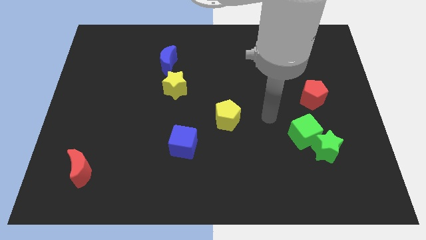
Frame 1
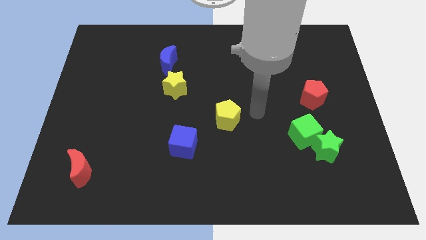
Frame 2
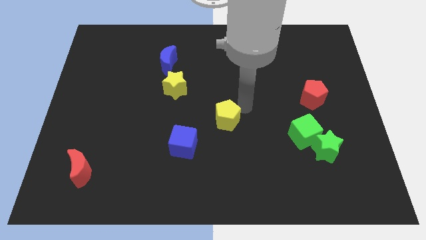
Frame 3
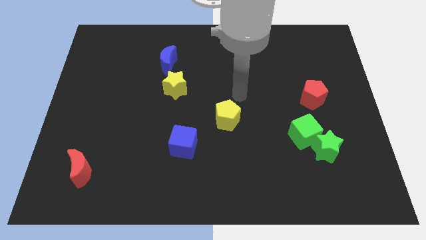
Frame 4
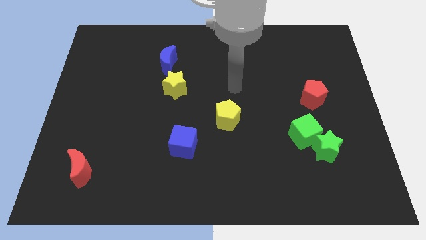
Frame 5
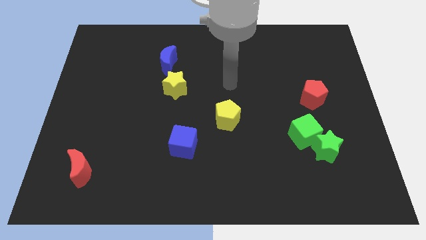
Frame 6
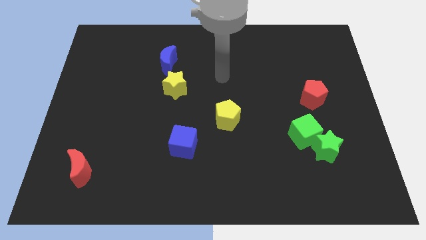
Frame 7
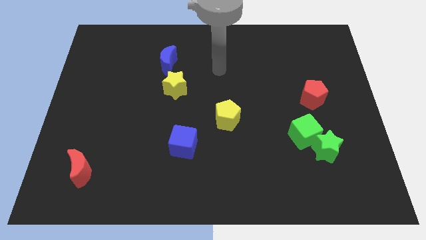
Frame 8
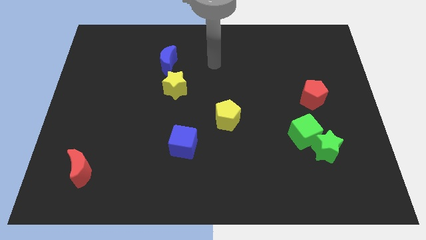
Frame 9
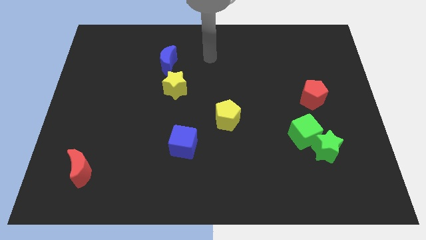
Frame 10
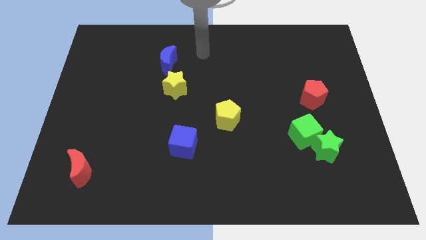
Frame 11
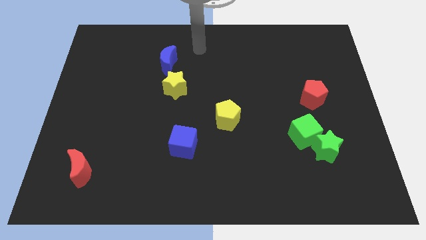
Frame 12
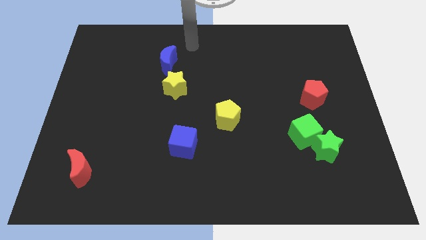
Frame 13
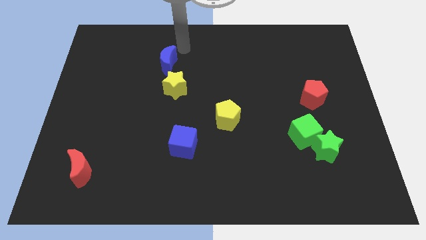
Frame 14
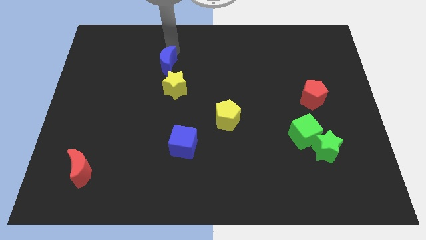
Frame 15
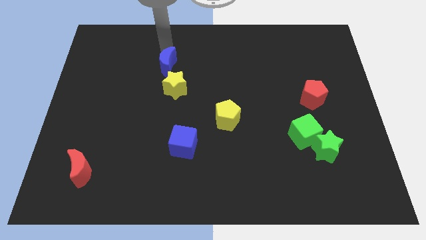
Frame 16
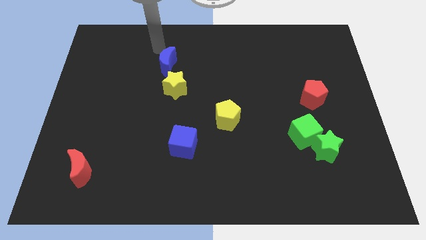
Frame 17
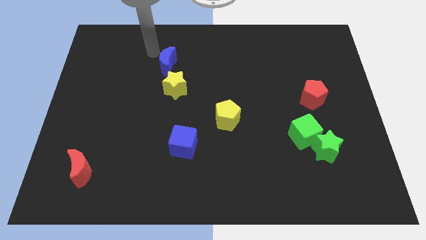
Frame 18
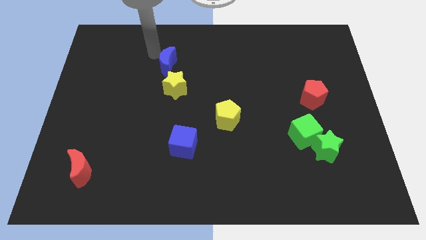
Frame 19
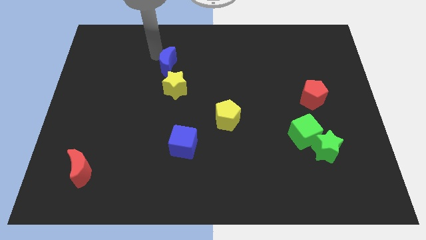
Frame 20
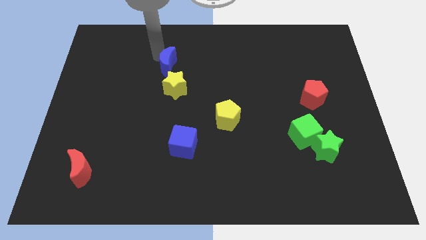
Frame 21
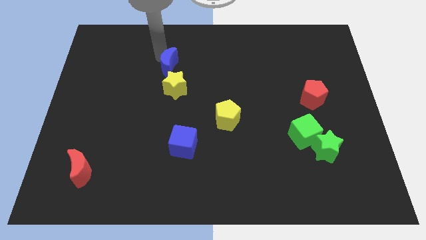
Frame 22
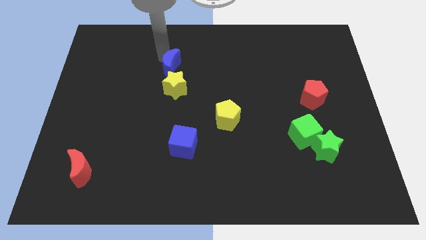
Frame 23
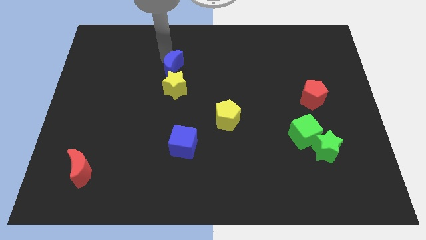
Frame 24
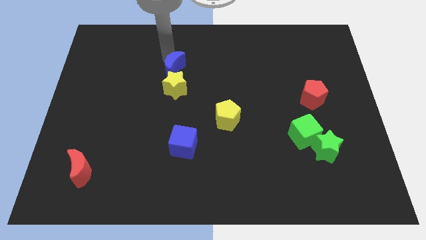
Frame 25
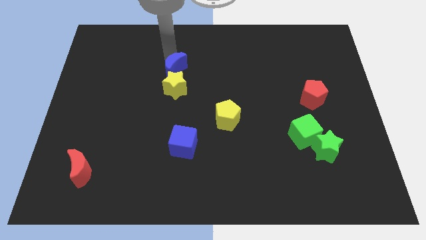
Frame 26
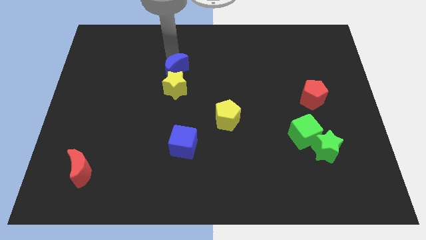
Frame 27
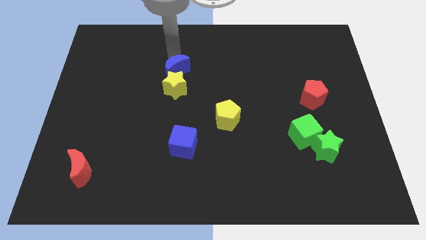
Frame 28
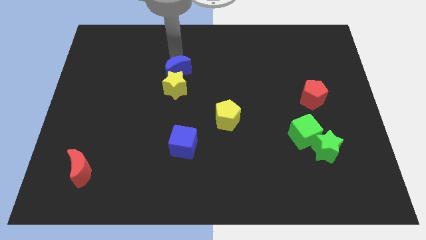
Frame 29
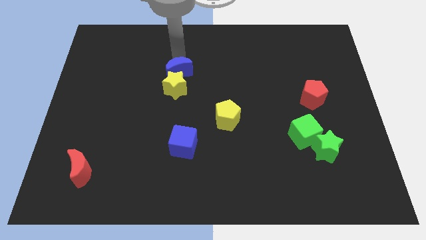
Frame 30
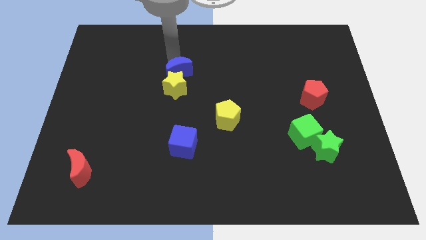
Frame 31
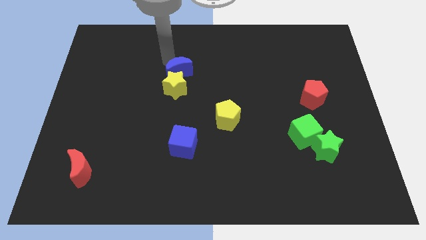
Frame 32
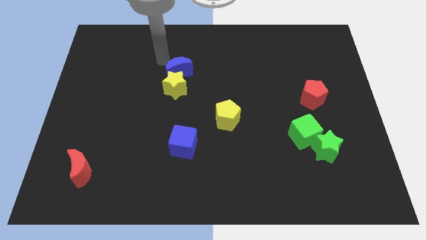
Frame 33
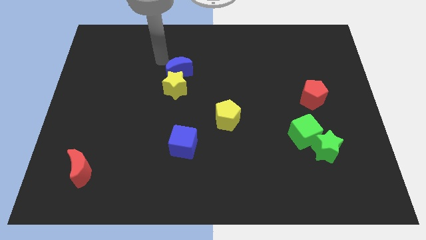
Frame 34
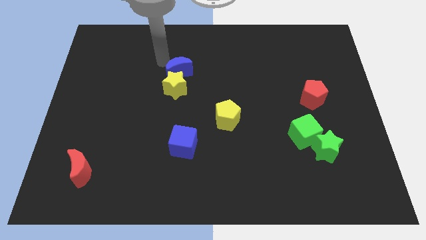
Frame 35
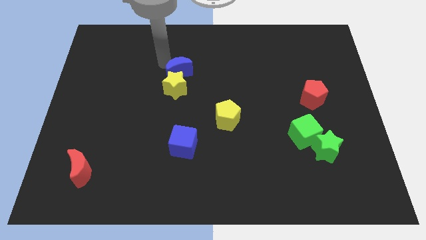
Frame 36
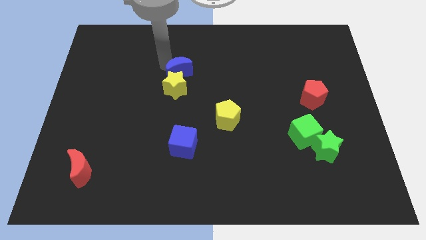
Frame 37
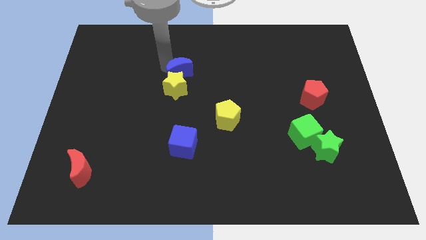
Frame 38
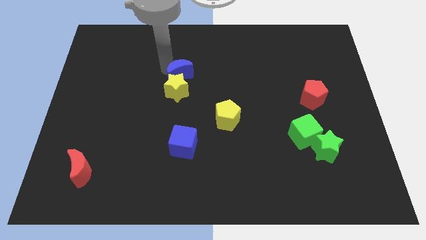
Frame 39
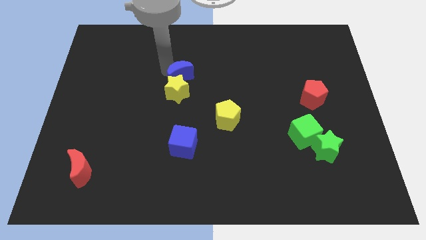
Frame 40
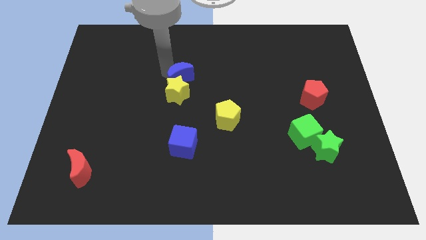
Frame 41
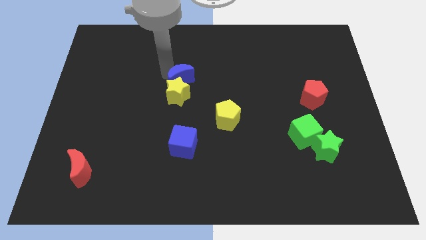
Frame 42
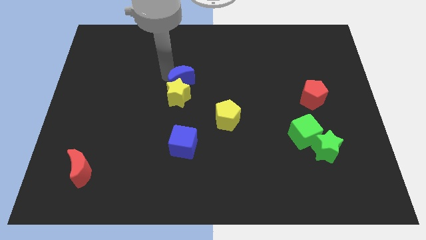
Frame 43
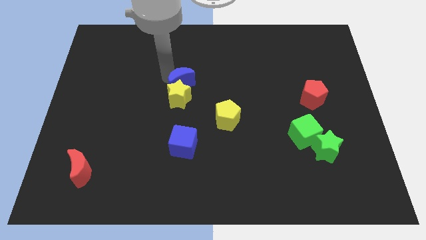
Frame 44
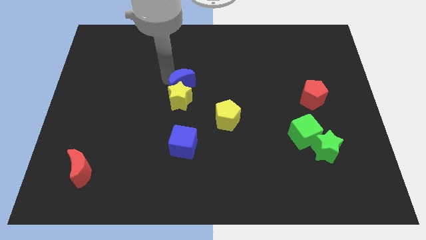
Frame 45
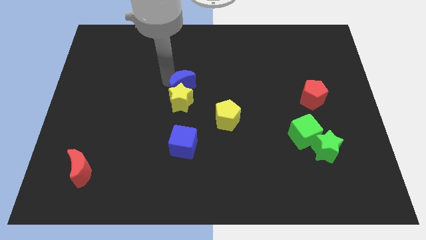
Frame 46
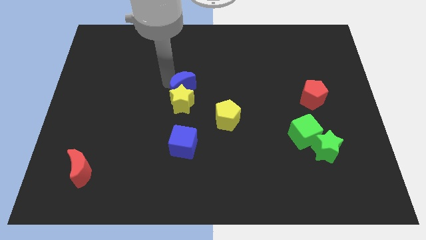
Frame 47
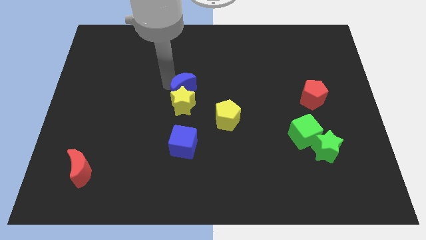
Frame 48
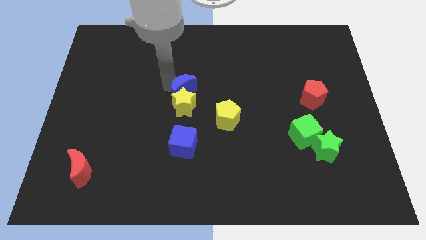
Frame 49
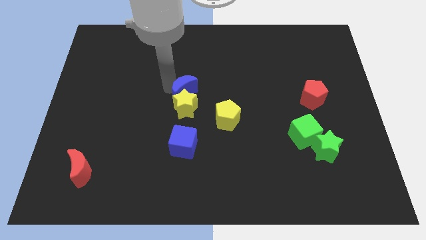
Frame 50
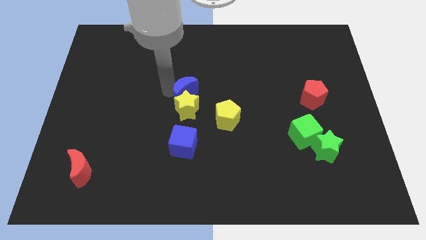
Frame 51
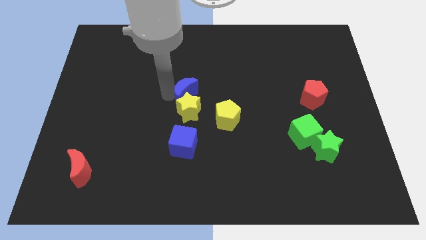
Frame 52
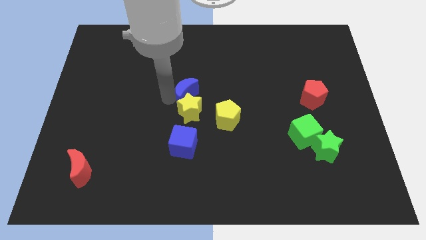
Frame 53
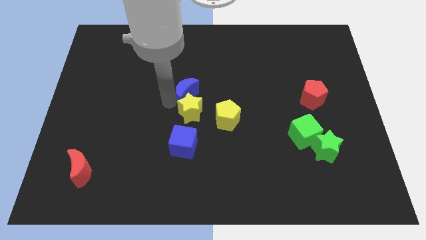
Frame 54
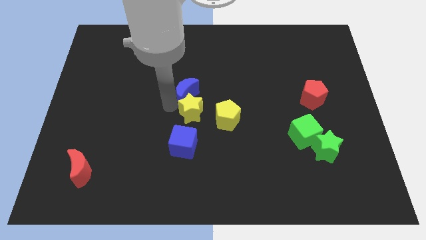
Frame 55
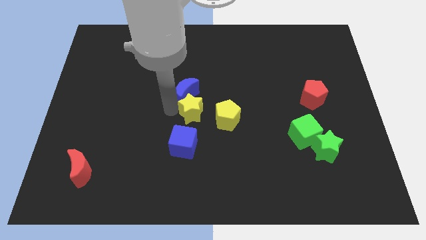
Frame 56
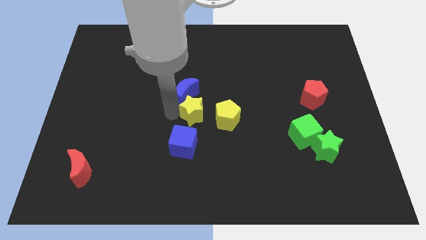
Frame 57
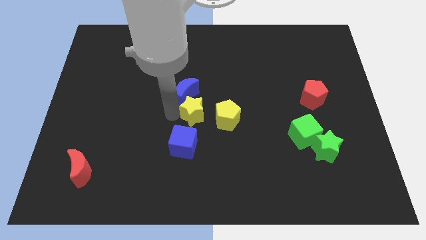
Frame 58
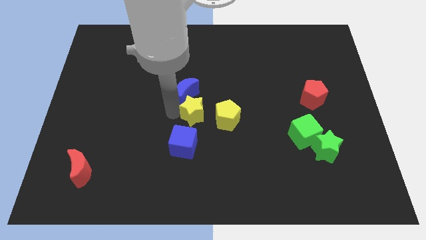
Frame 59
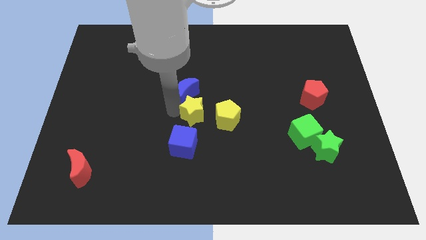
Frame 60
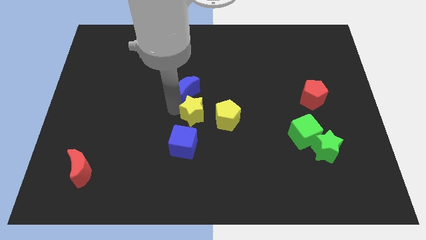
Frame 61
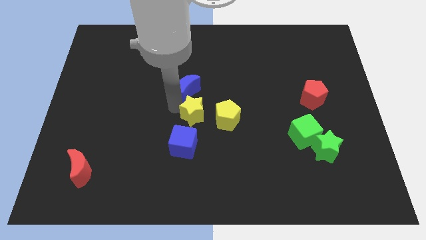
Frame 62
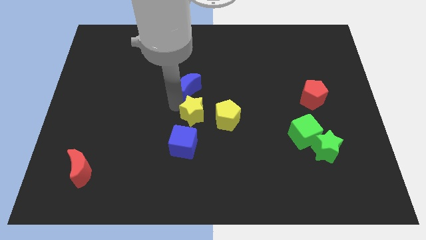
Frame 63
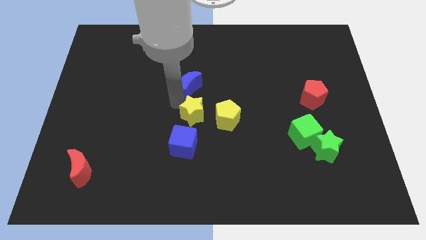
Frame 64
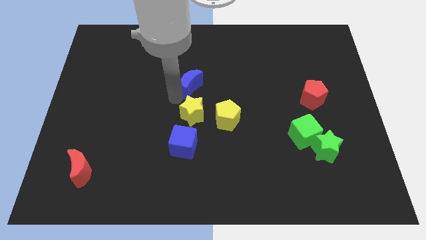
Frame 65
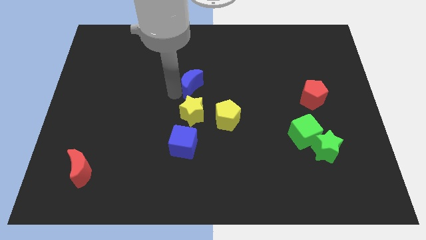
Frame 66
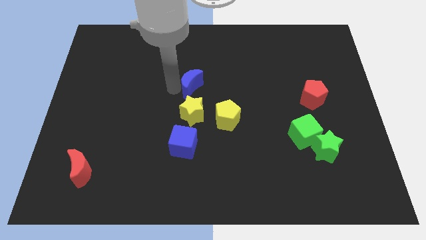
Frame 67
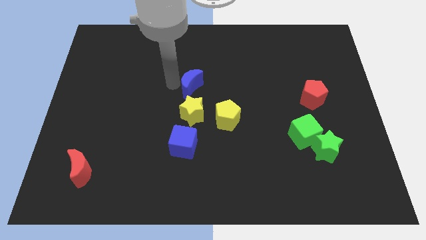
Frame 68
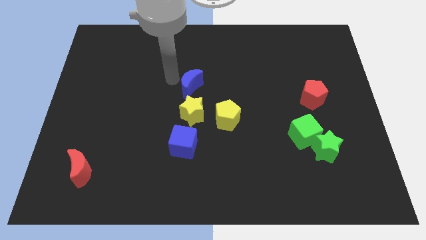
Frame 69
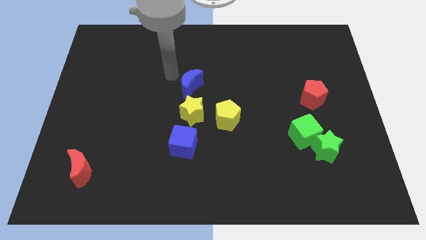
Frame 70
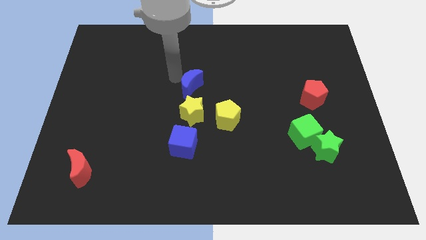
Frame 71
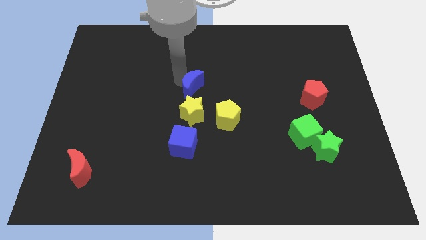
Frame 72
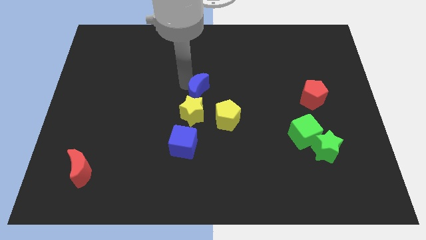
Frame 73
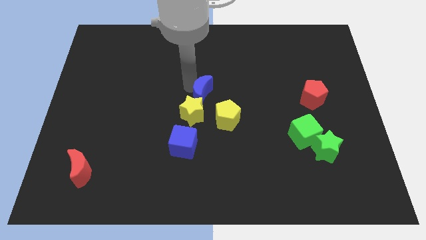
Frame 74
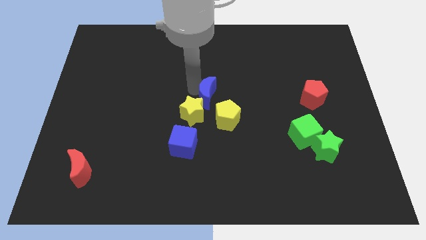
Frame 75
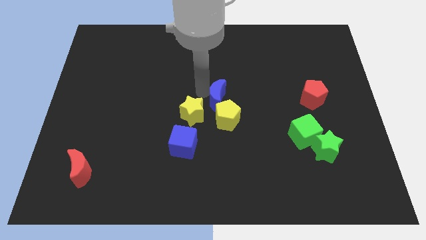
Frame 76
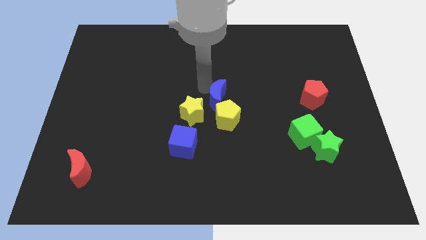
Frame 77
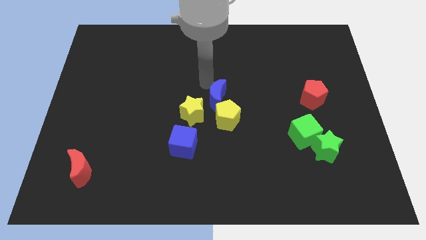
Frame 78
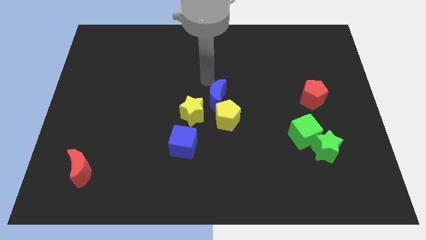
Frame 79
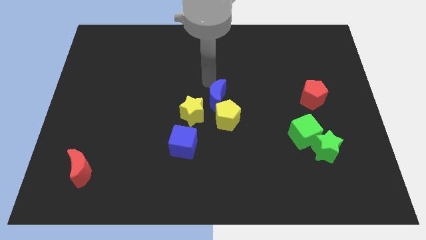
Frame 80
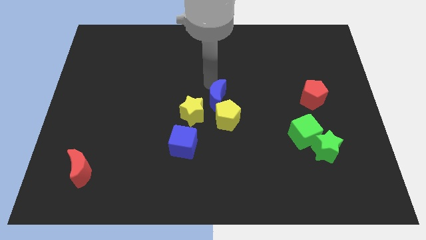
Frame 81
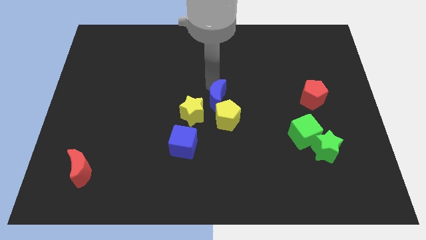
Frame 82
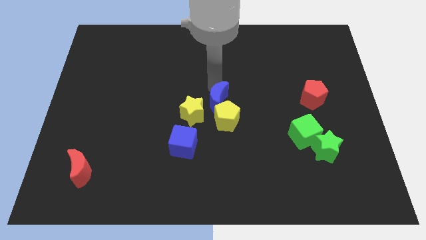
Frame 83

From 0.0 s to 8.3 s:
slide the blue moon next to the yellow pentagon
